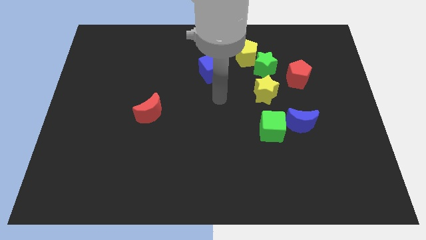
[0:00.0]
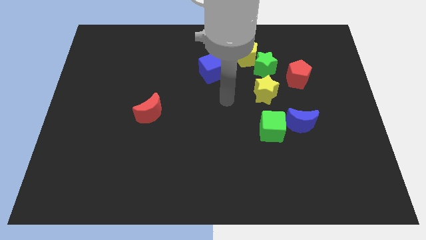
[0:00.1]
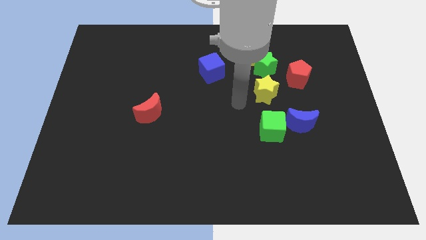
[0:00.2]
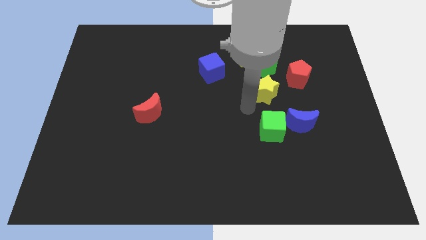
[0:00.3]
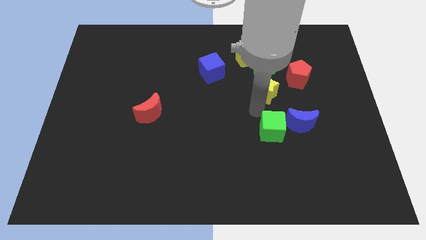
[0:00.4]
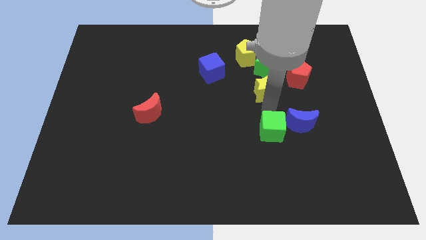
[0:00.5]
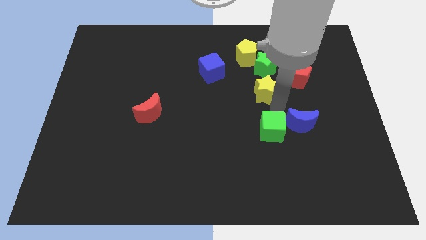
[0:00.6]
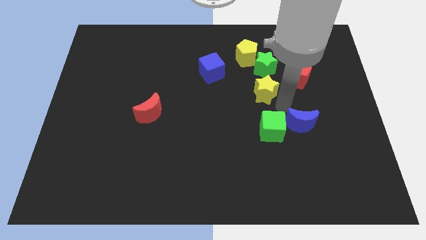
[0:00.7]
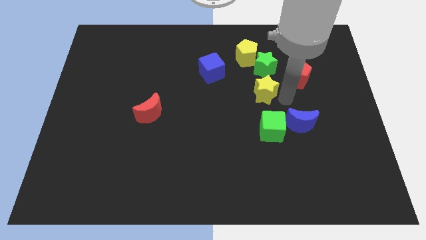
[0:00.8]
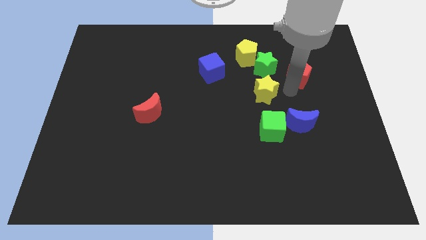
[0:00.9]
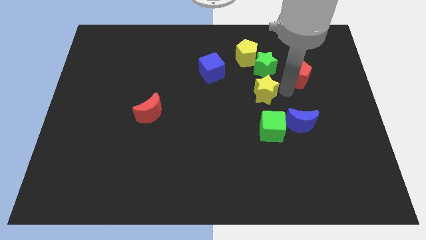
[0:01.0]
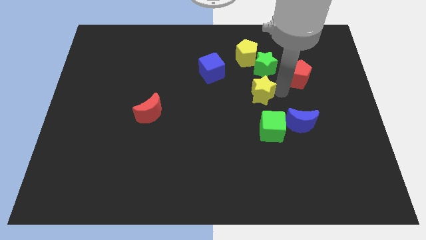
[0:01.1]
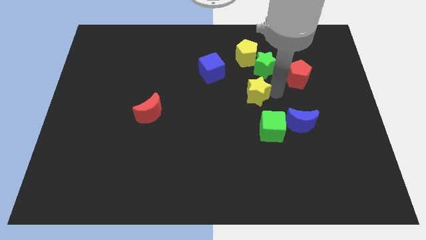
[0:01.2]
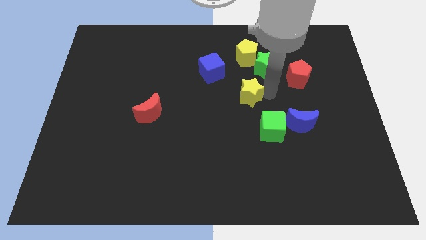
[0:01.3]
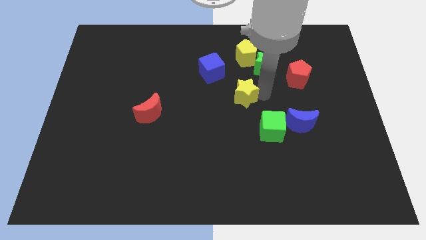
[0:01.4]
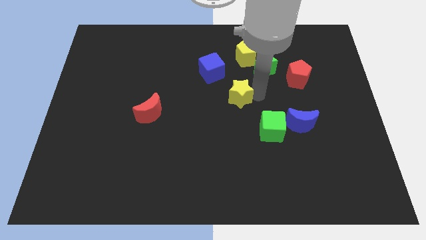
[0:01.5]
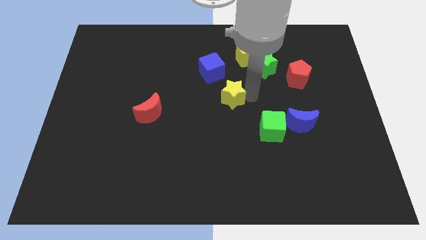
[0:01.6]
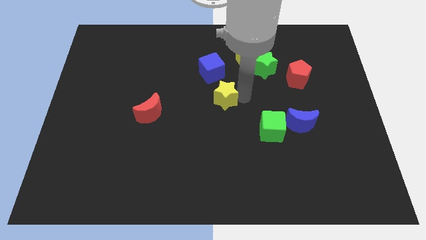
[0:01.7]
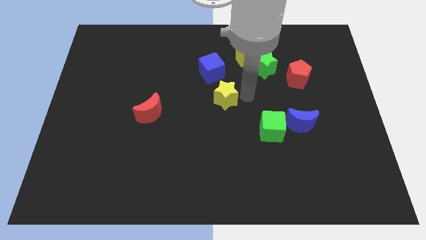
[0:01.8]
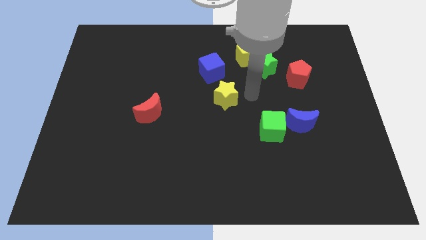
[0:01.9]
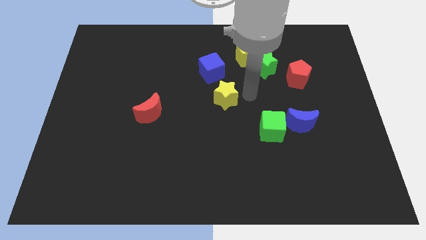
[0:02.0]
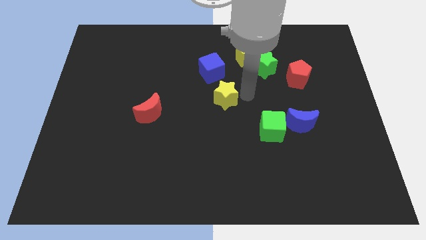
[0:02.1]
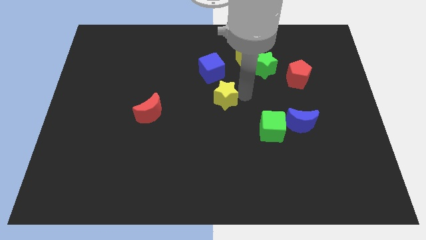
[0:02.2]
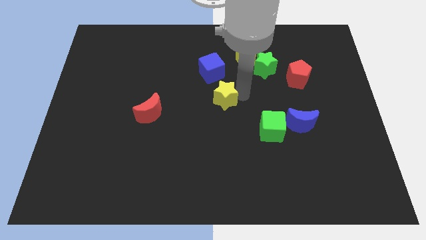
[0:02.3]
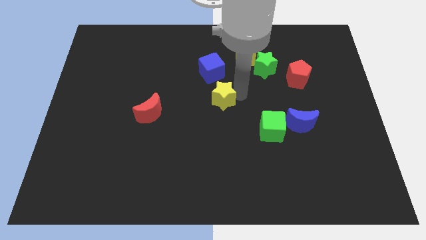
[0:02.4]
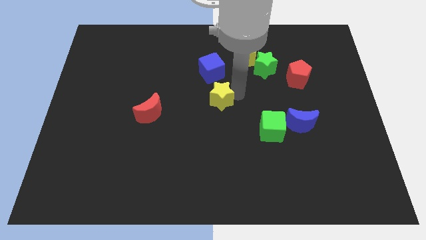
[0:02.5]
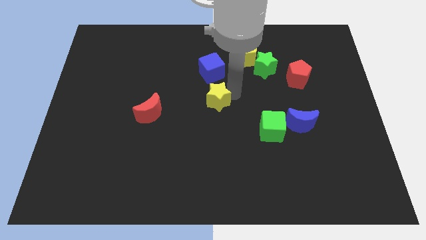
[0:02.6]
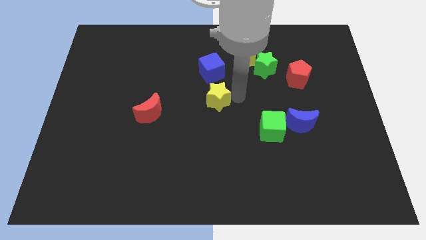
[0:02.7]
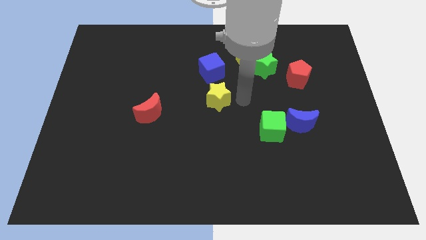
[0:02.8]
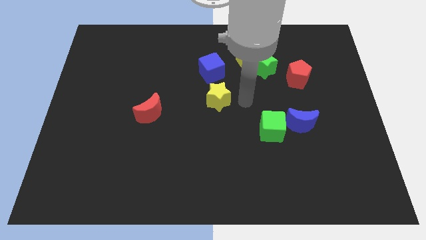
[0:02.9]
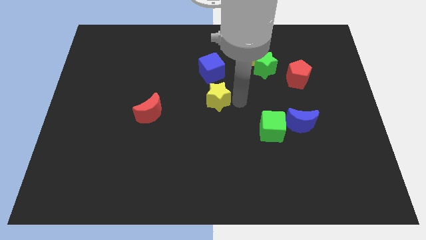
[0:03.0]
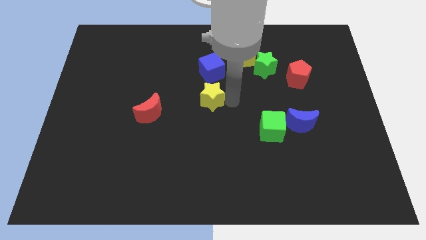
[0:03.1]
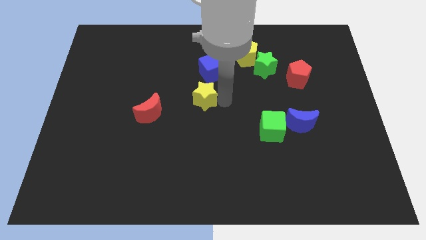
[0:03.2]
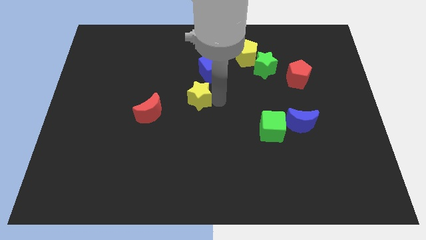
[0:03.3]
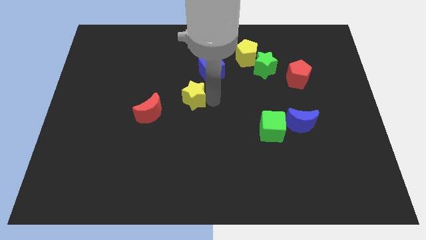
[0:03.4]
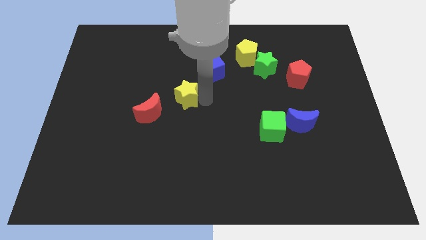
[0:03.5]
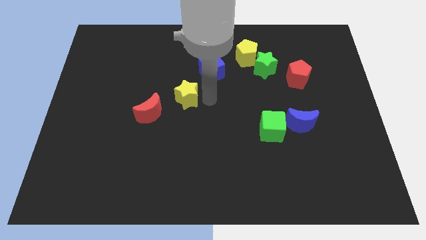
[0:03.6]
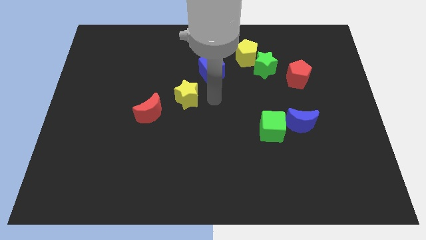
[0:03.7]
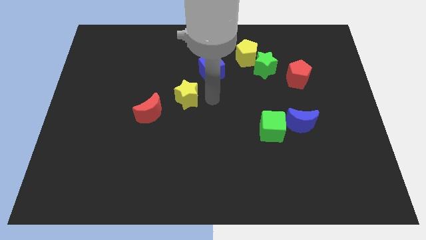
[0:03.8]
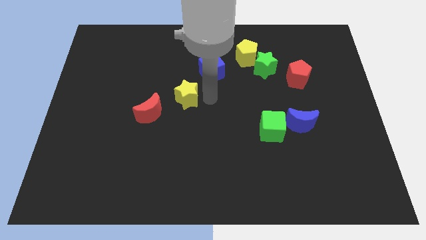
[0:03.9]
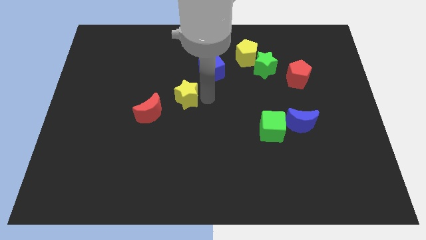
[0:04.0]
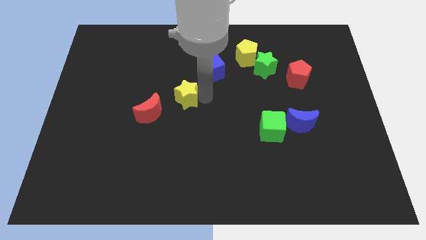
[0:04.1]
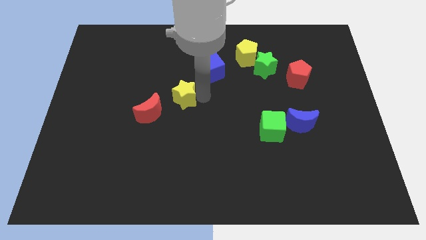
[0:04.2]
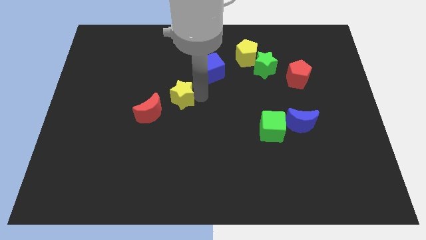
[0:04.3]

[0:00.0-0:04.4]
slide the yellow star to the left

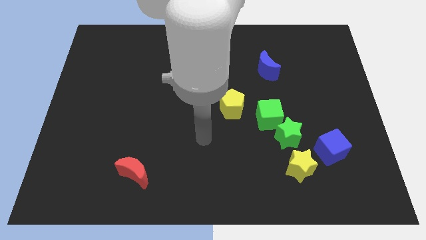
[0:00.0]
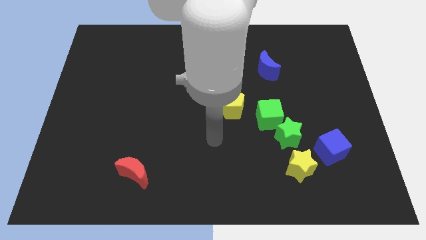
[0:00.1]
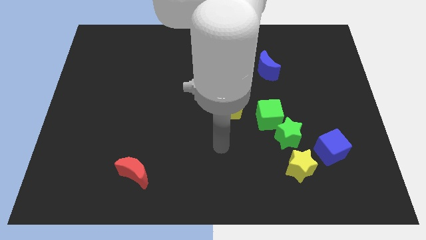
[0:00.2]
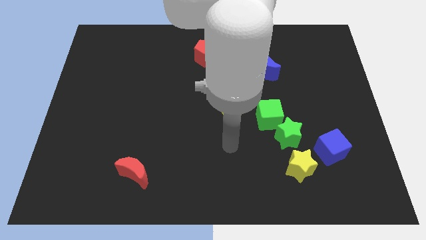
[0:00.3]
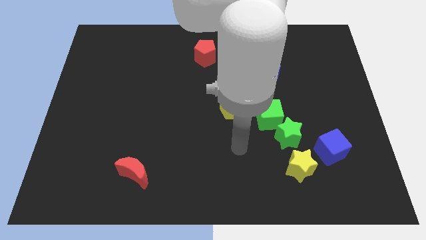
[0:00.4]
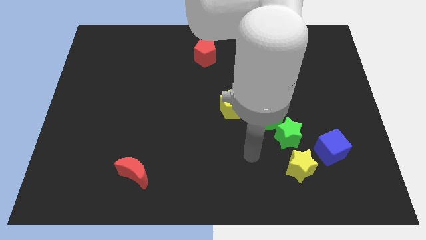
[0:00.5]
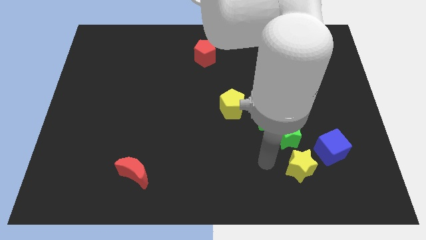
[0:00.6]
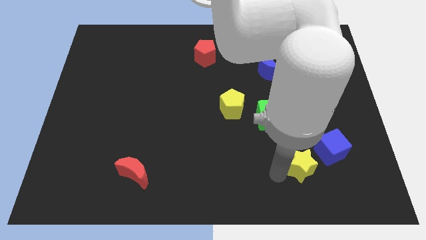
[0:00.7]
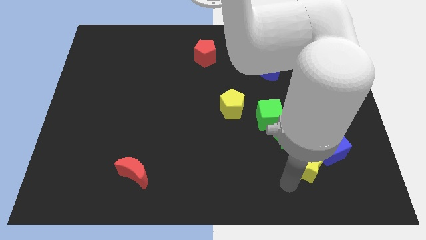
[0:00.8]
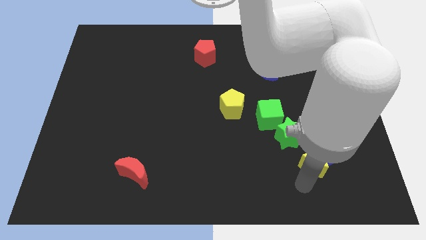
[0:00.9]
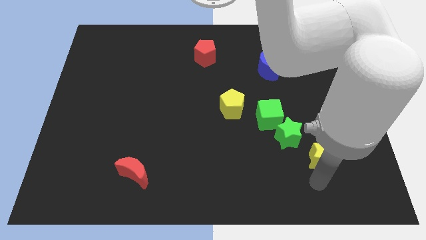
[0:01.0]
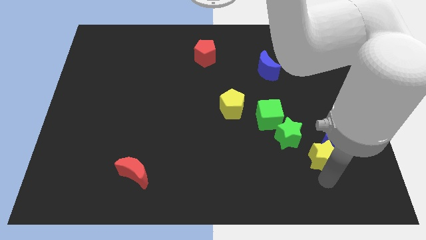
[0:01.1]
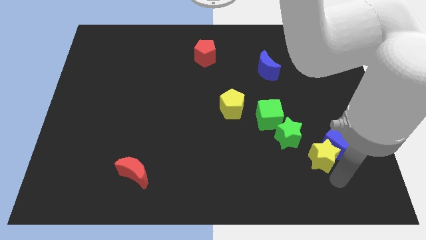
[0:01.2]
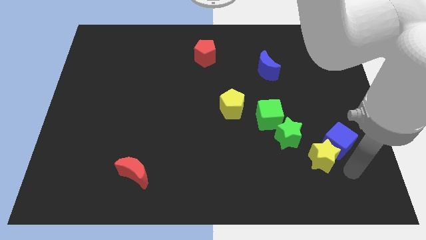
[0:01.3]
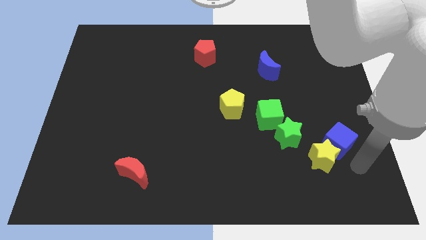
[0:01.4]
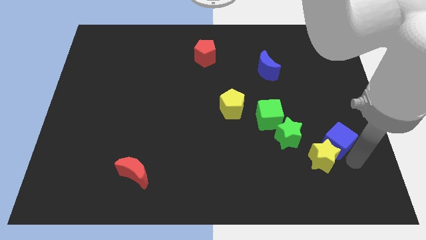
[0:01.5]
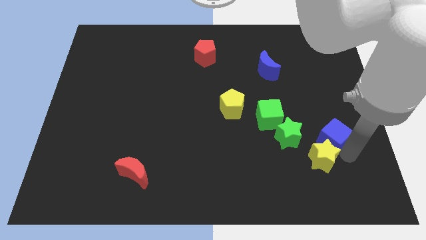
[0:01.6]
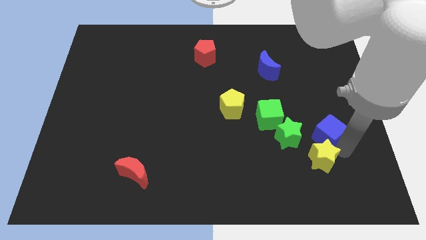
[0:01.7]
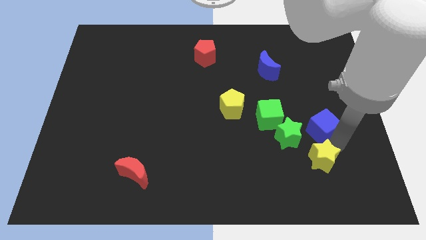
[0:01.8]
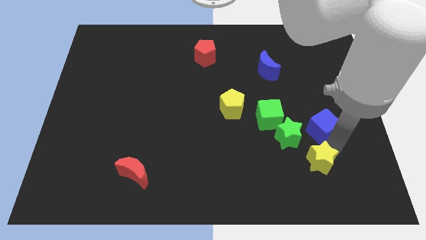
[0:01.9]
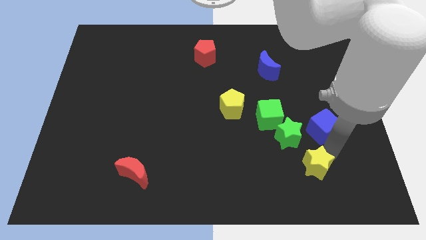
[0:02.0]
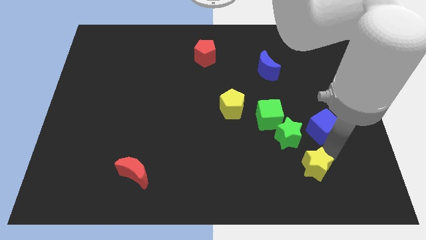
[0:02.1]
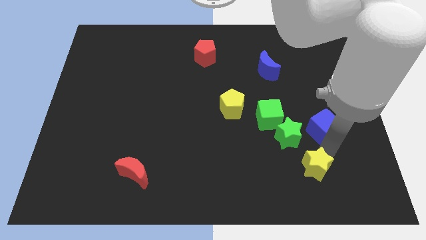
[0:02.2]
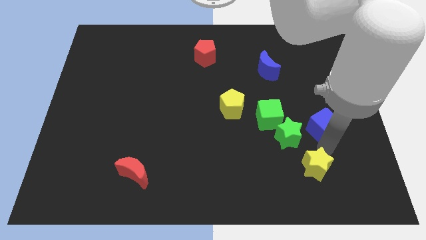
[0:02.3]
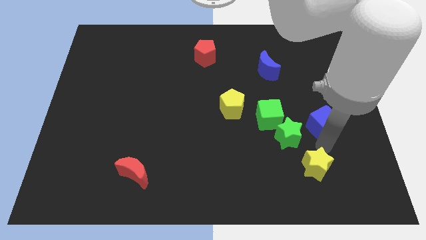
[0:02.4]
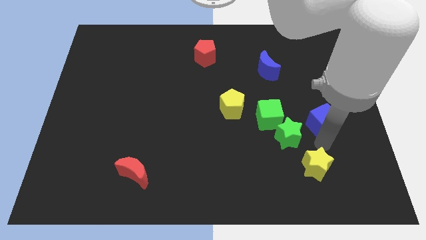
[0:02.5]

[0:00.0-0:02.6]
slide the blue cube somewhat upwards

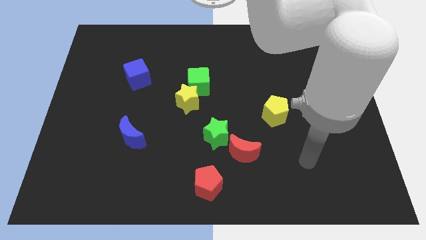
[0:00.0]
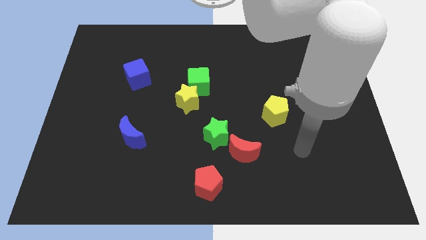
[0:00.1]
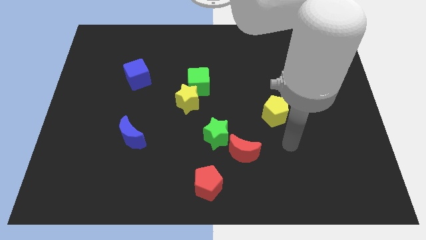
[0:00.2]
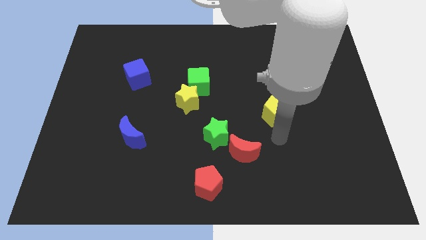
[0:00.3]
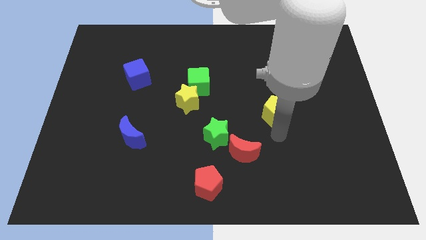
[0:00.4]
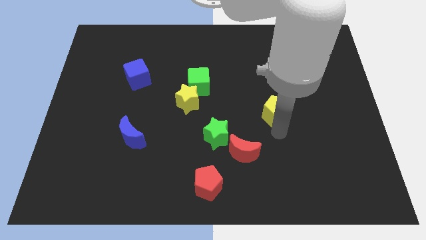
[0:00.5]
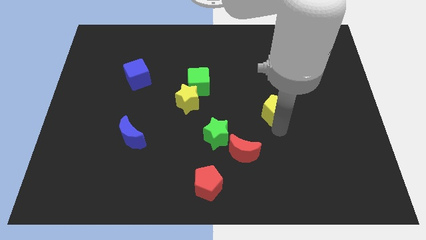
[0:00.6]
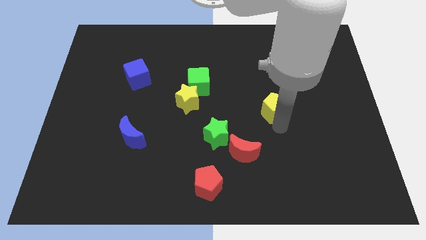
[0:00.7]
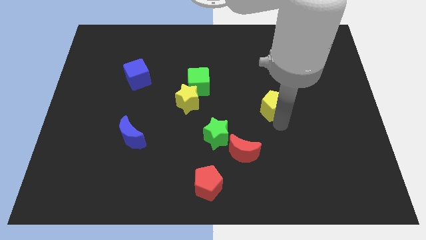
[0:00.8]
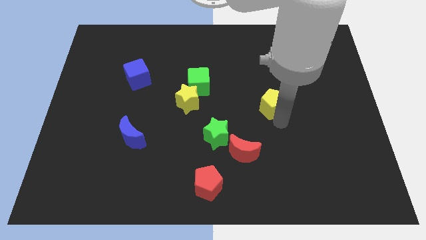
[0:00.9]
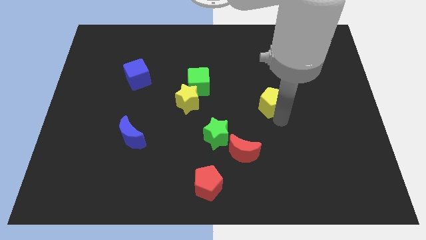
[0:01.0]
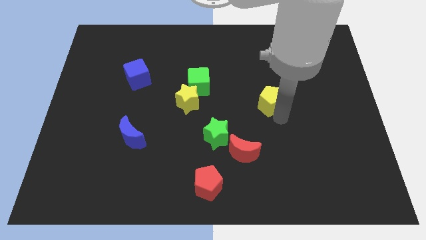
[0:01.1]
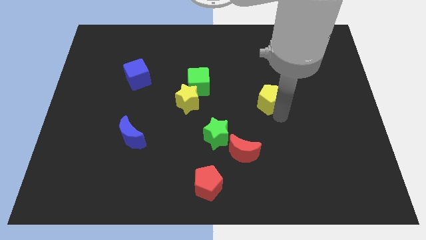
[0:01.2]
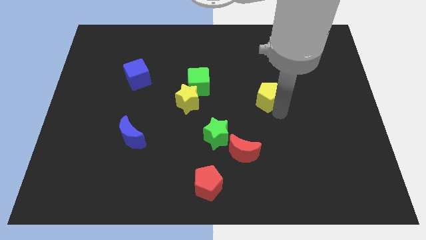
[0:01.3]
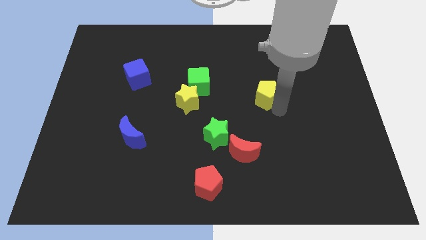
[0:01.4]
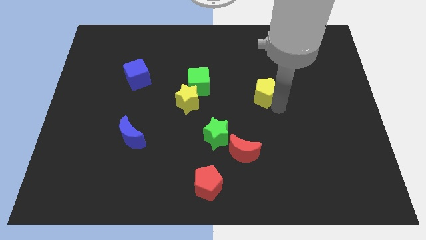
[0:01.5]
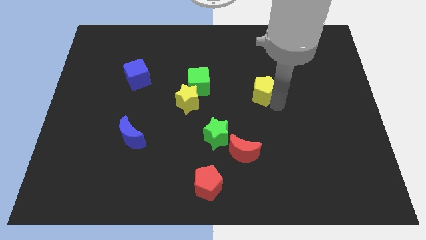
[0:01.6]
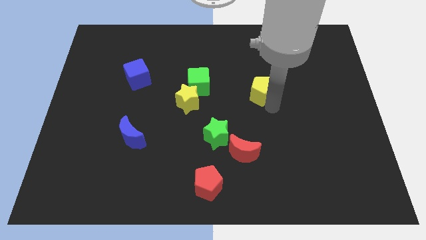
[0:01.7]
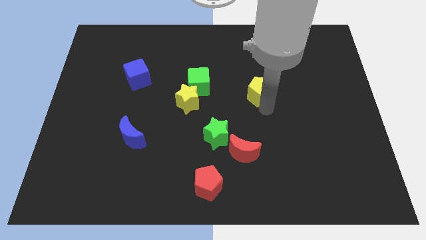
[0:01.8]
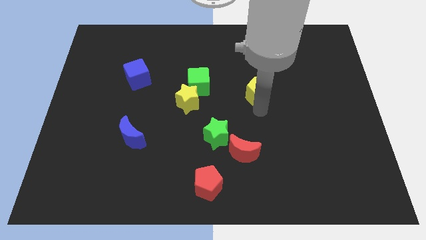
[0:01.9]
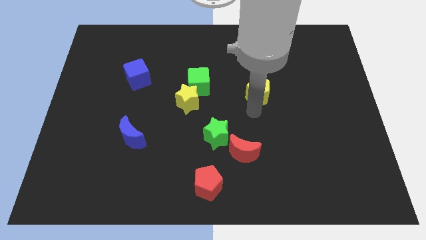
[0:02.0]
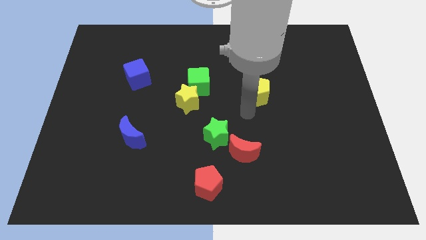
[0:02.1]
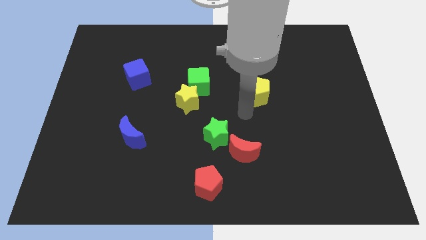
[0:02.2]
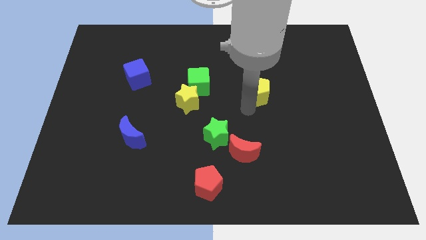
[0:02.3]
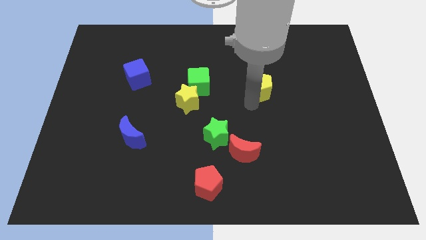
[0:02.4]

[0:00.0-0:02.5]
push the yellow pentagon somewhat up
